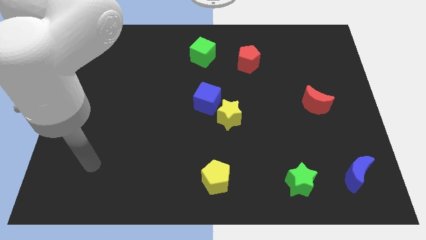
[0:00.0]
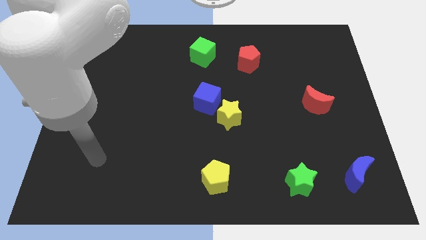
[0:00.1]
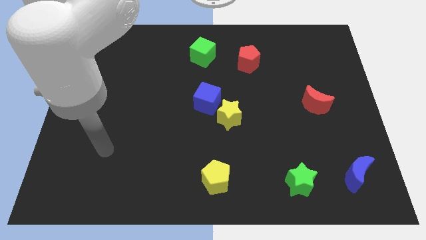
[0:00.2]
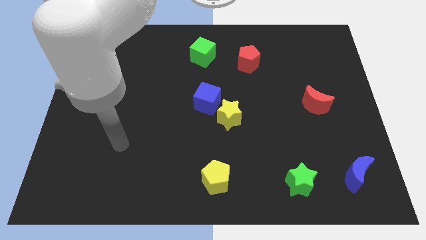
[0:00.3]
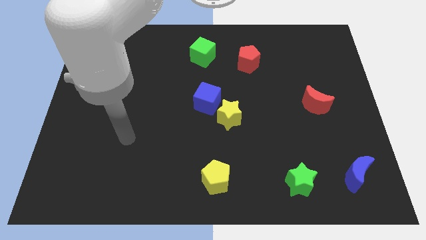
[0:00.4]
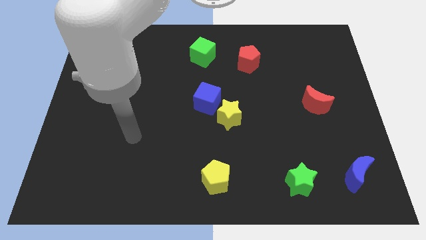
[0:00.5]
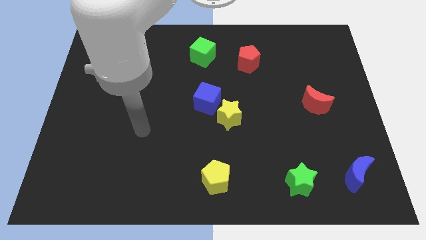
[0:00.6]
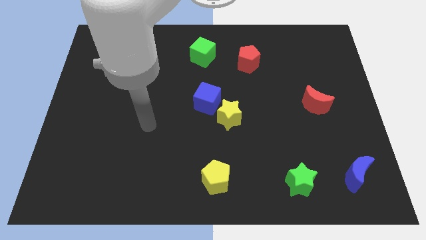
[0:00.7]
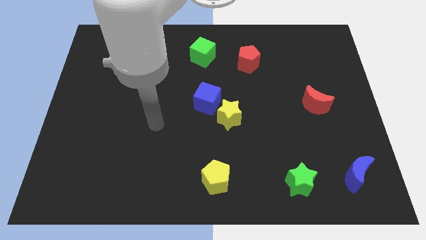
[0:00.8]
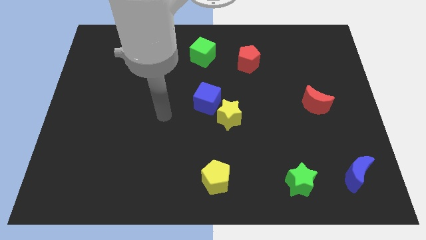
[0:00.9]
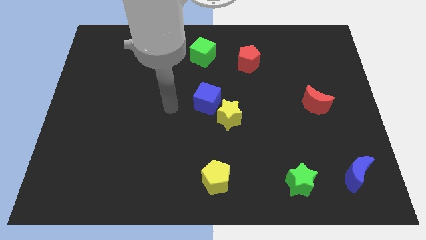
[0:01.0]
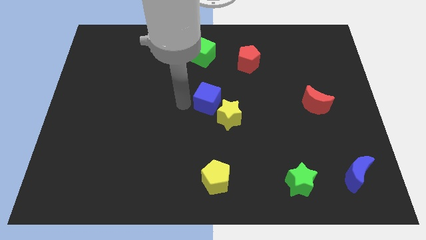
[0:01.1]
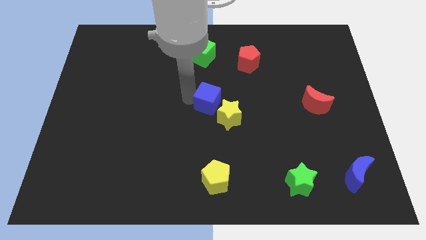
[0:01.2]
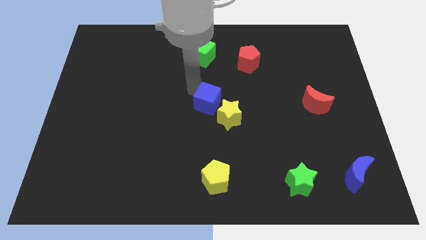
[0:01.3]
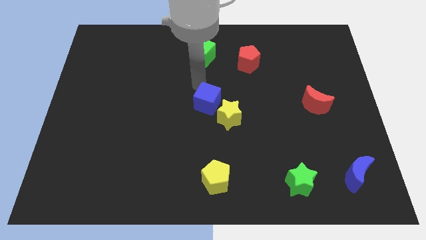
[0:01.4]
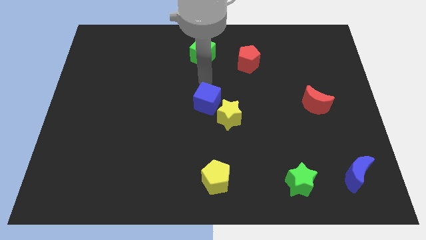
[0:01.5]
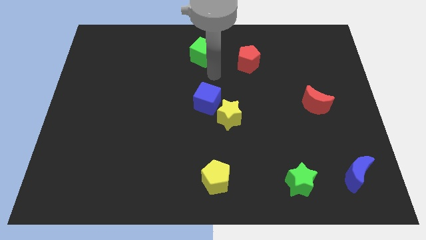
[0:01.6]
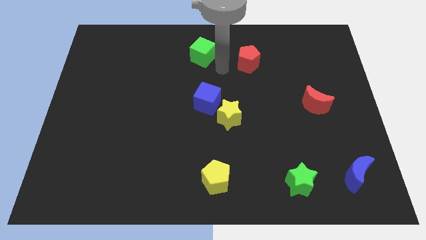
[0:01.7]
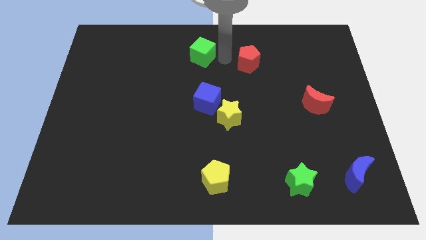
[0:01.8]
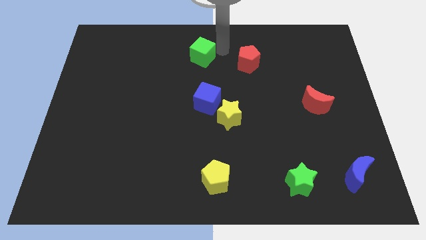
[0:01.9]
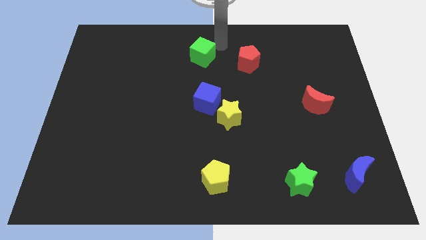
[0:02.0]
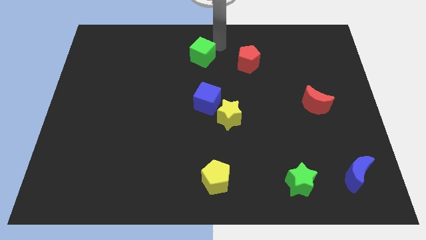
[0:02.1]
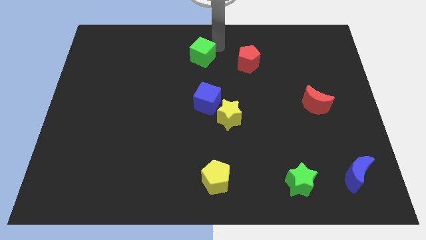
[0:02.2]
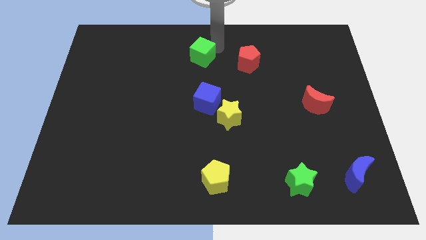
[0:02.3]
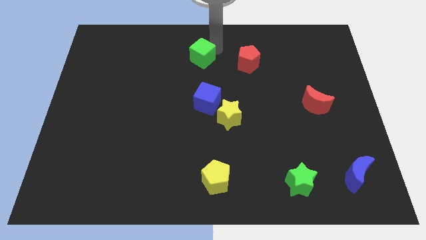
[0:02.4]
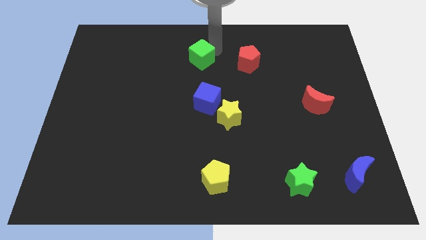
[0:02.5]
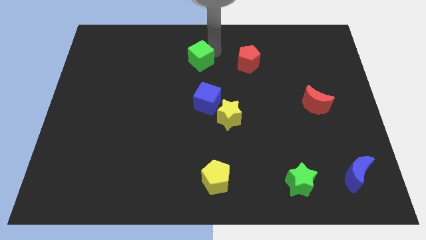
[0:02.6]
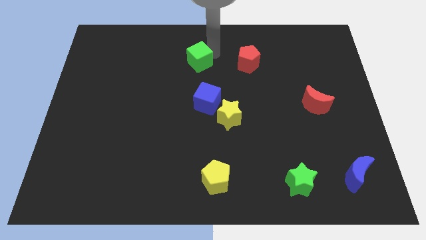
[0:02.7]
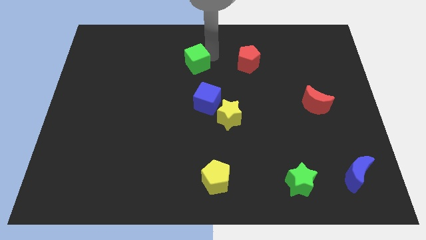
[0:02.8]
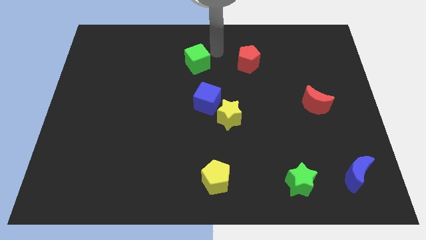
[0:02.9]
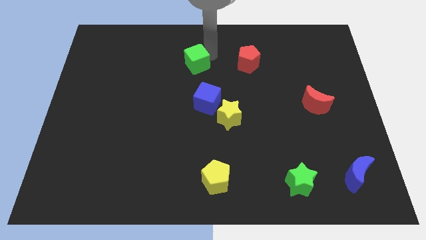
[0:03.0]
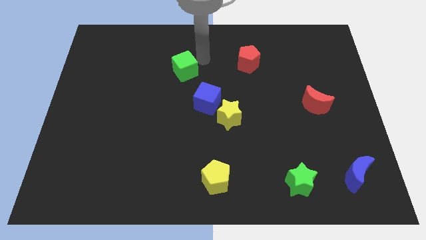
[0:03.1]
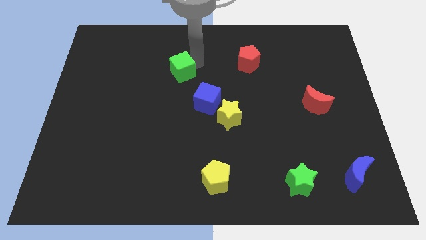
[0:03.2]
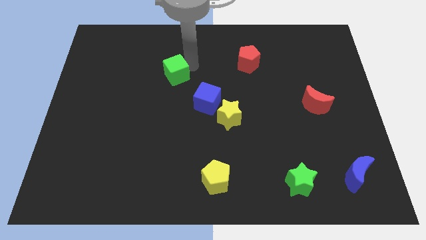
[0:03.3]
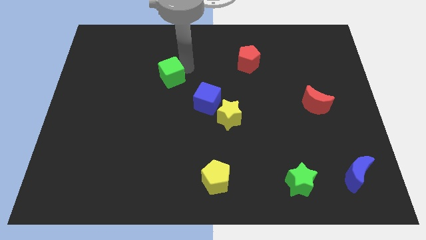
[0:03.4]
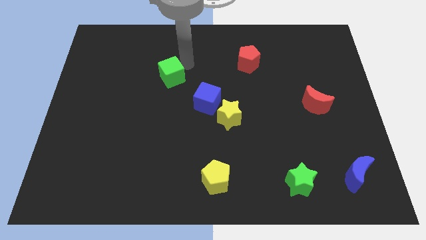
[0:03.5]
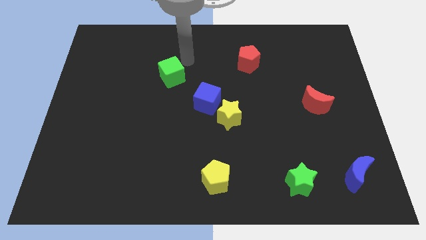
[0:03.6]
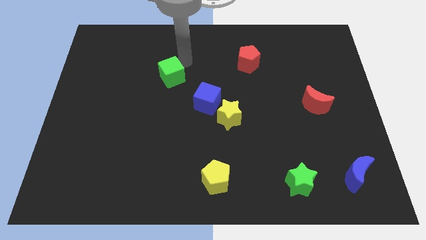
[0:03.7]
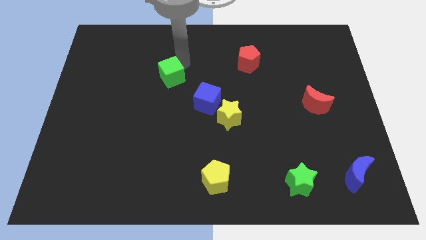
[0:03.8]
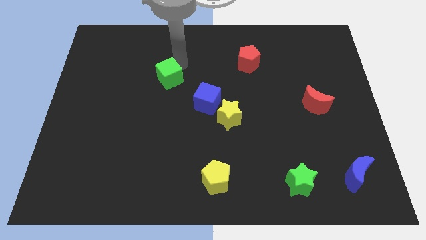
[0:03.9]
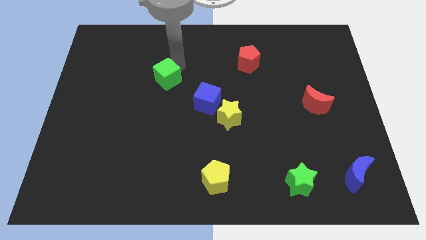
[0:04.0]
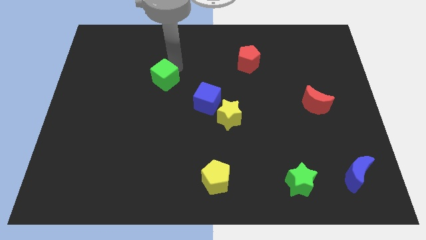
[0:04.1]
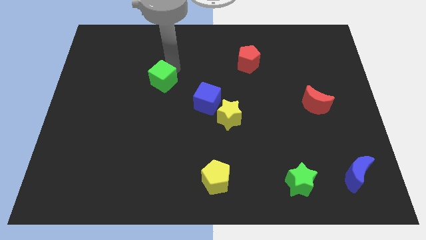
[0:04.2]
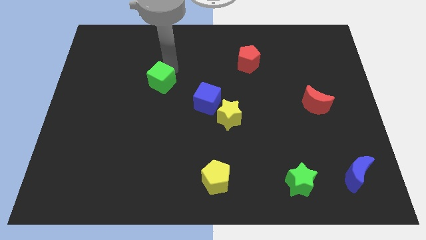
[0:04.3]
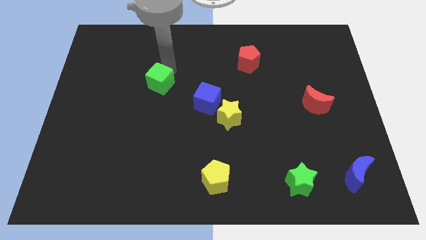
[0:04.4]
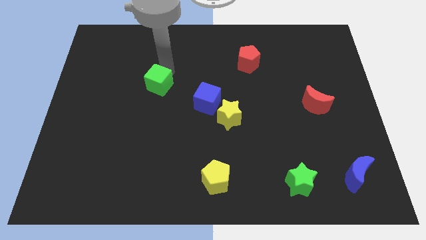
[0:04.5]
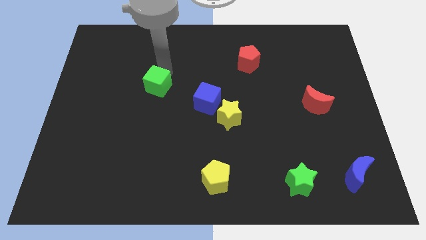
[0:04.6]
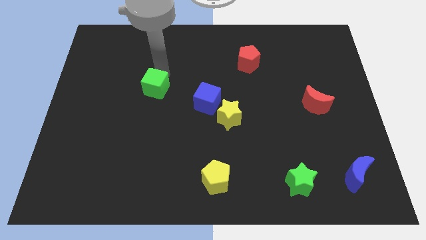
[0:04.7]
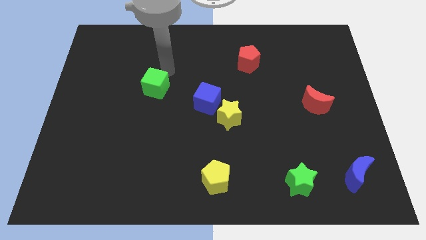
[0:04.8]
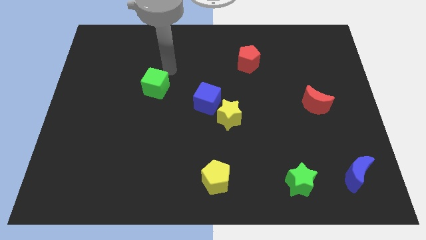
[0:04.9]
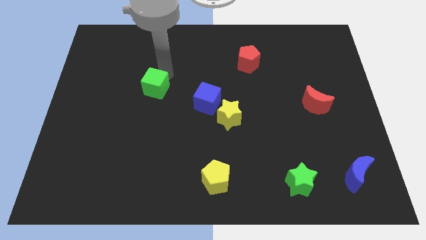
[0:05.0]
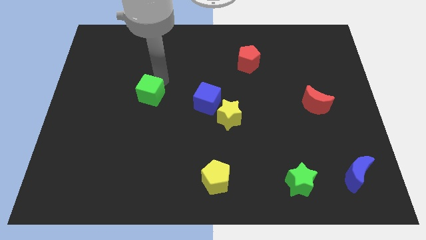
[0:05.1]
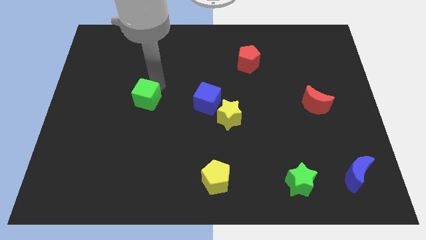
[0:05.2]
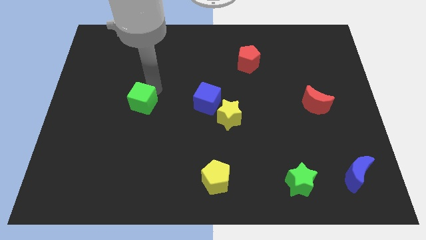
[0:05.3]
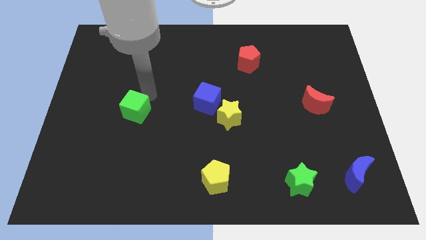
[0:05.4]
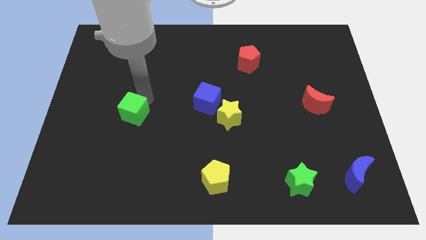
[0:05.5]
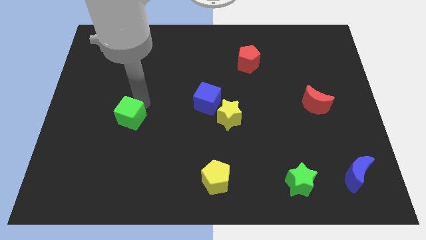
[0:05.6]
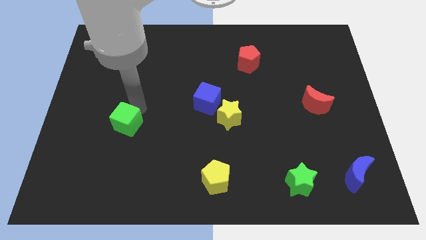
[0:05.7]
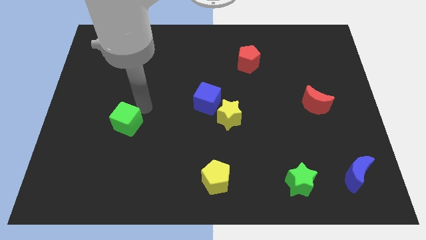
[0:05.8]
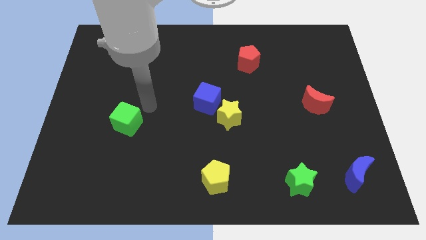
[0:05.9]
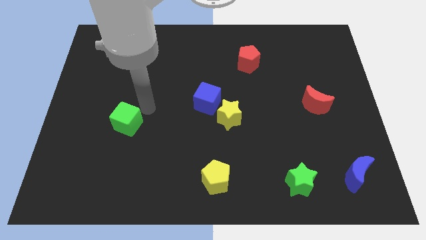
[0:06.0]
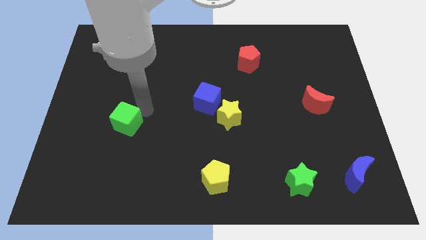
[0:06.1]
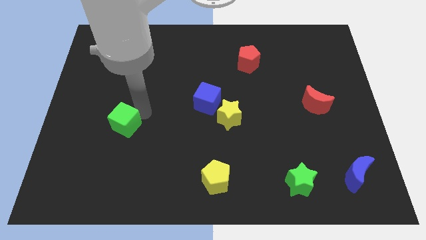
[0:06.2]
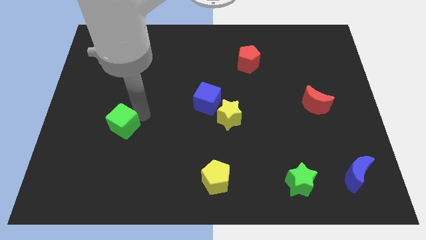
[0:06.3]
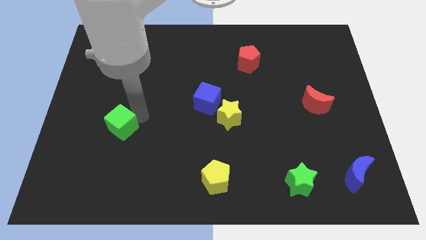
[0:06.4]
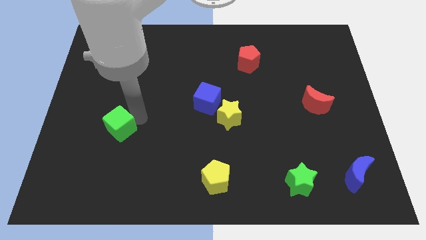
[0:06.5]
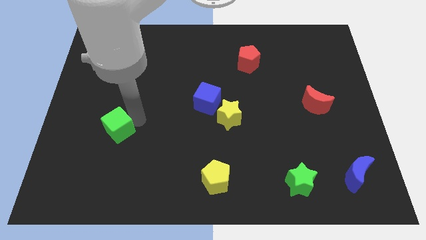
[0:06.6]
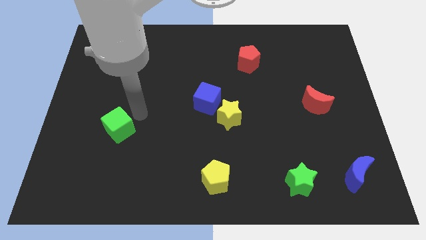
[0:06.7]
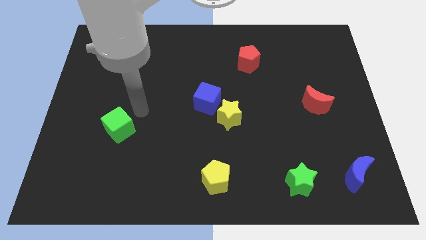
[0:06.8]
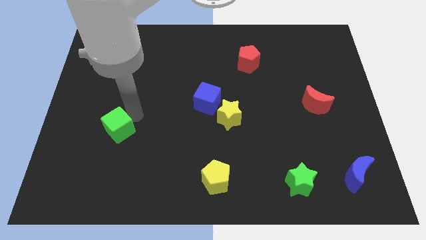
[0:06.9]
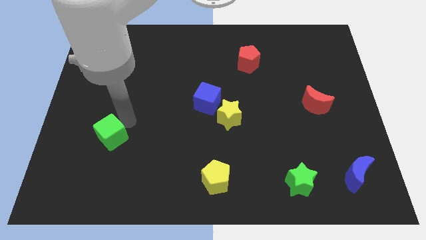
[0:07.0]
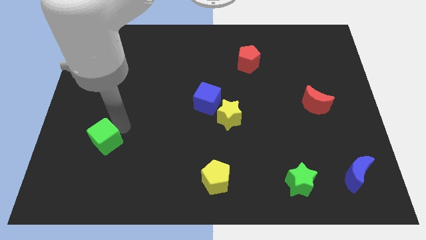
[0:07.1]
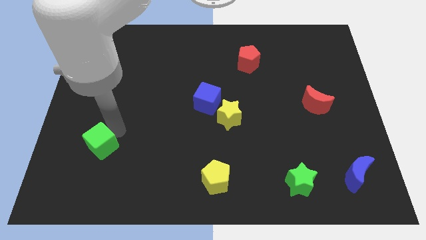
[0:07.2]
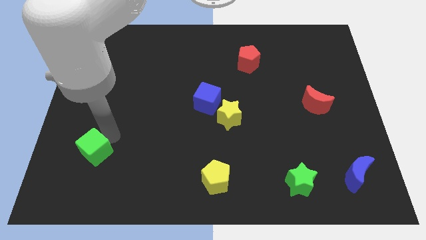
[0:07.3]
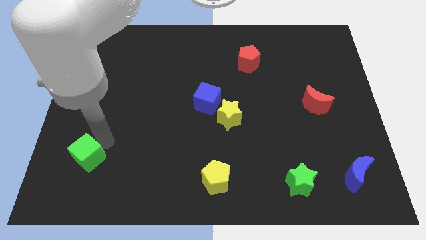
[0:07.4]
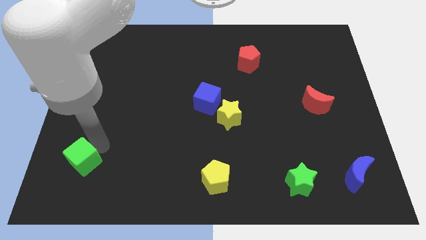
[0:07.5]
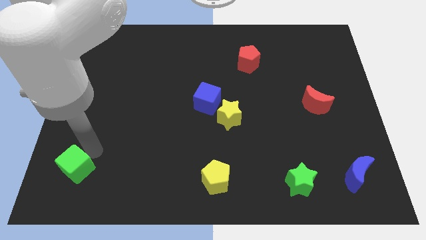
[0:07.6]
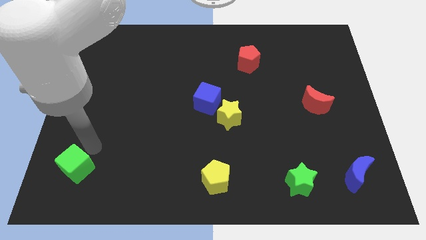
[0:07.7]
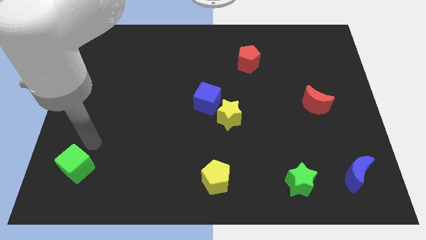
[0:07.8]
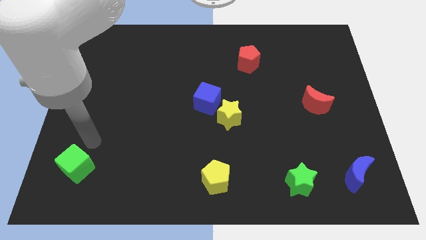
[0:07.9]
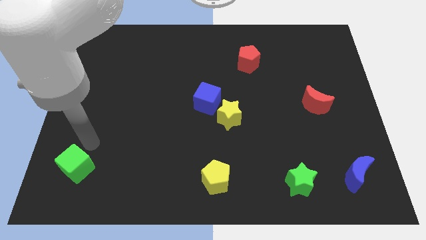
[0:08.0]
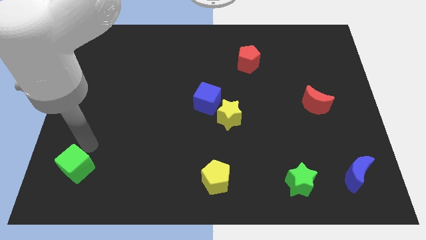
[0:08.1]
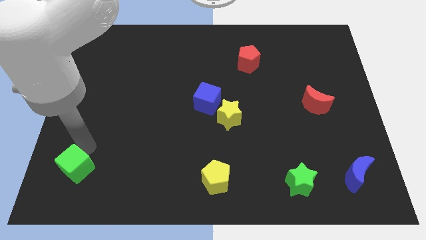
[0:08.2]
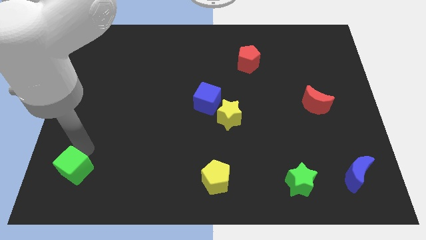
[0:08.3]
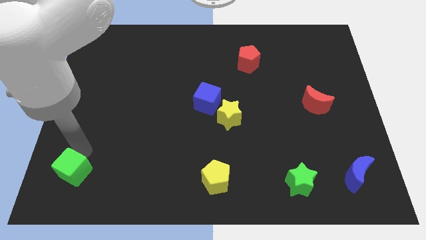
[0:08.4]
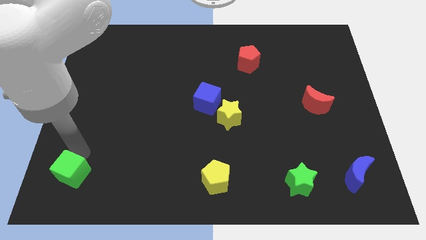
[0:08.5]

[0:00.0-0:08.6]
put the green cube to the bottom left of the board
